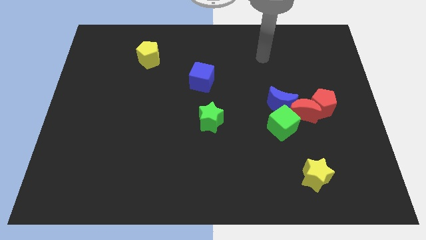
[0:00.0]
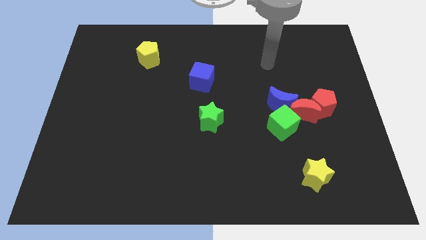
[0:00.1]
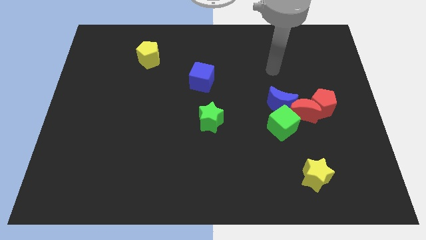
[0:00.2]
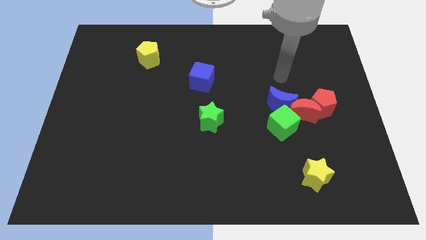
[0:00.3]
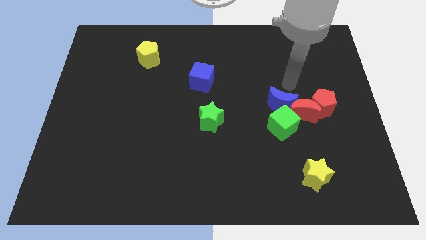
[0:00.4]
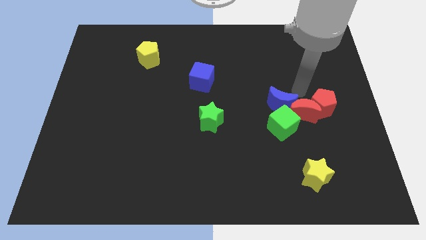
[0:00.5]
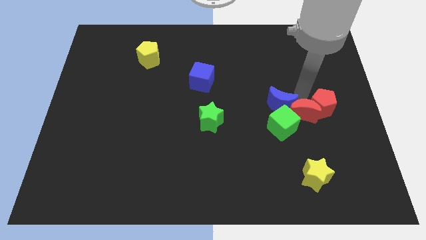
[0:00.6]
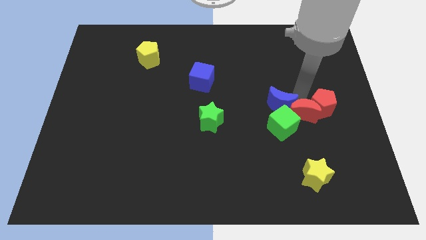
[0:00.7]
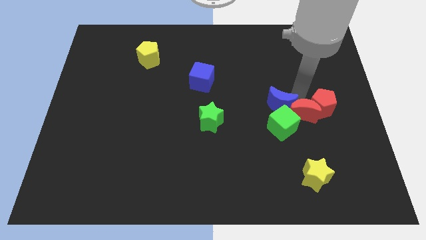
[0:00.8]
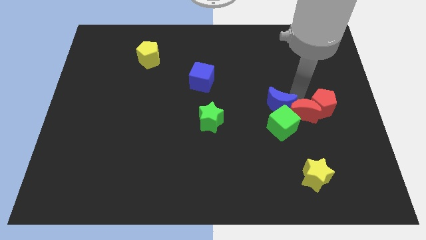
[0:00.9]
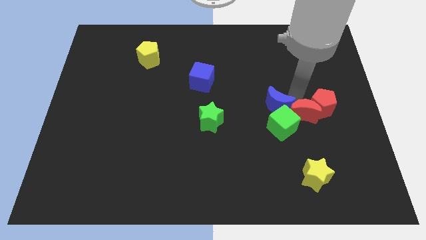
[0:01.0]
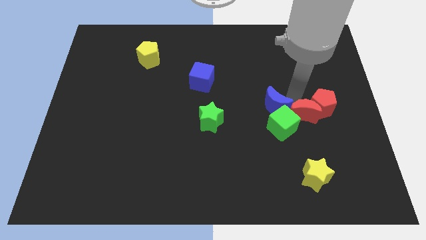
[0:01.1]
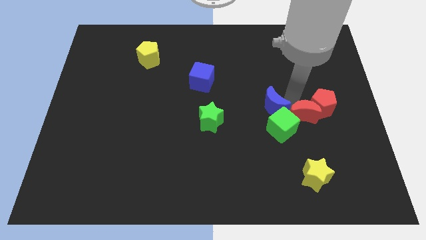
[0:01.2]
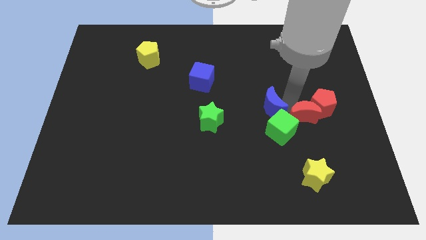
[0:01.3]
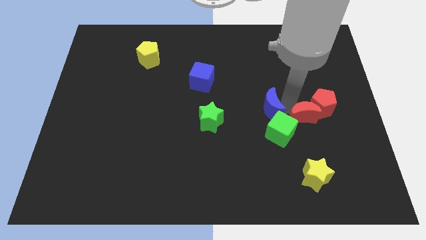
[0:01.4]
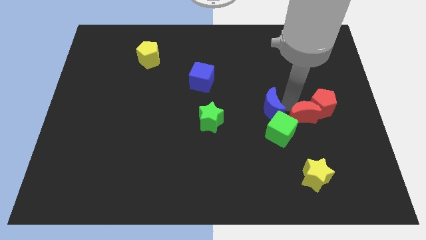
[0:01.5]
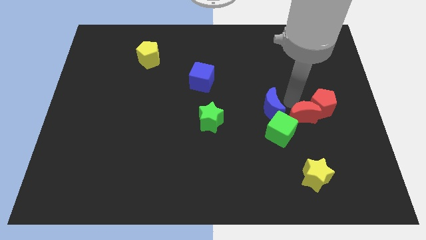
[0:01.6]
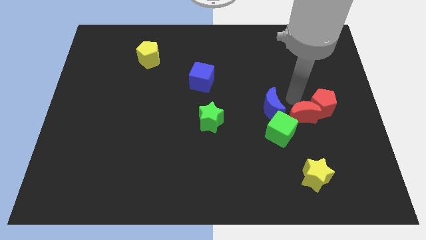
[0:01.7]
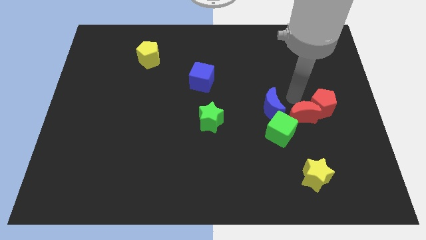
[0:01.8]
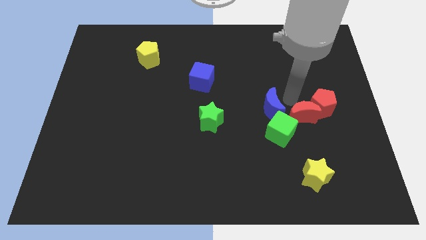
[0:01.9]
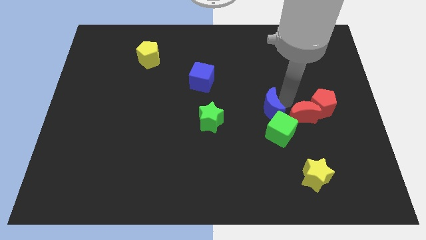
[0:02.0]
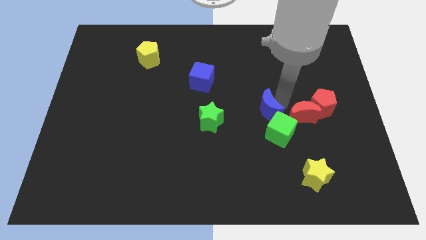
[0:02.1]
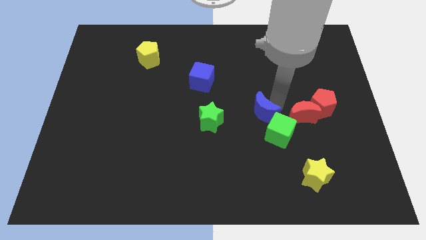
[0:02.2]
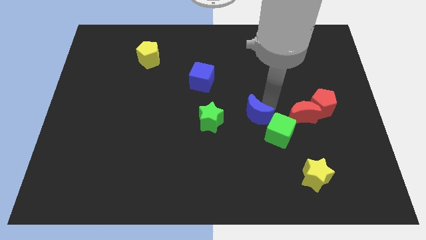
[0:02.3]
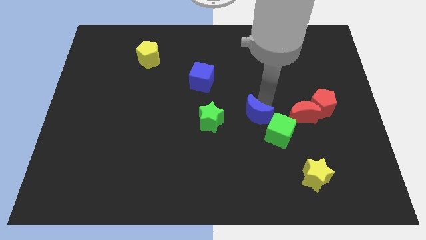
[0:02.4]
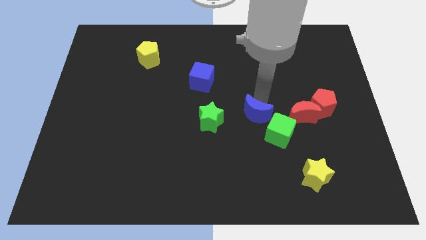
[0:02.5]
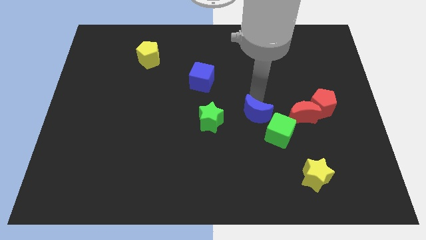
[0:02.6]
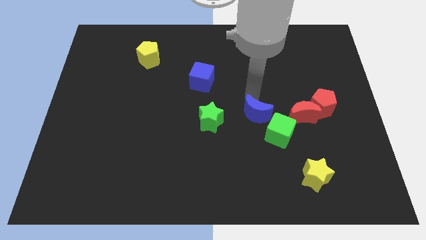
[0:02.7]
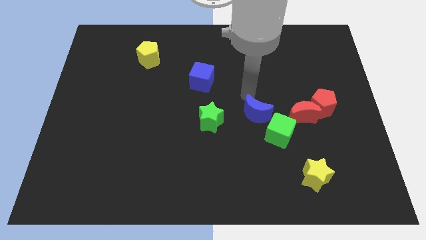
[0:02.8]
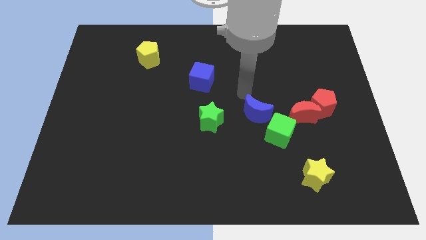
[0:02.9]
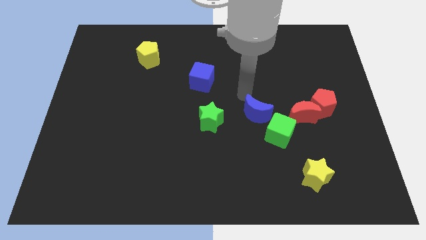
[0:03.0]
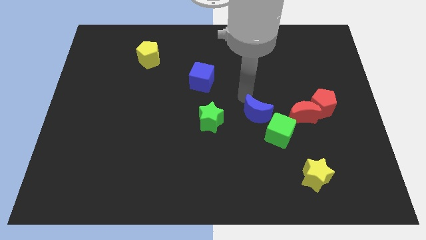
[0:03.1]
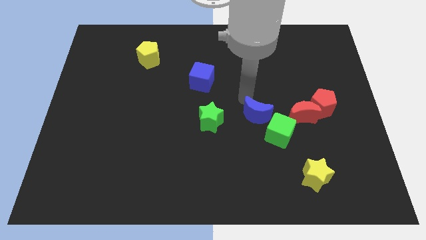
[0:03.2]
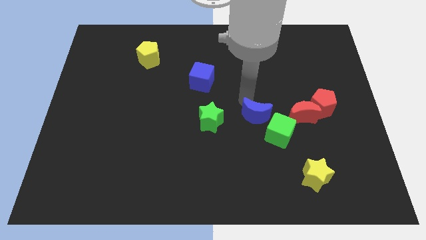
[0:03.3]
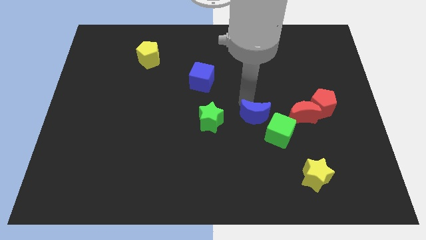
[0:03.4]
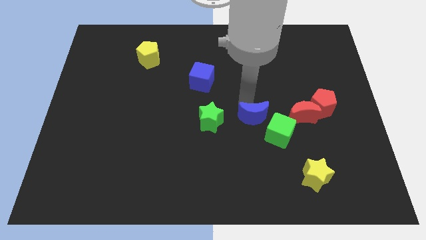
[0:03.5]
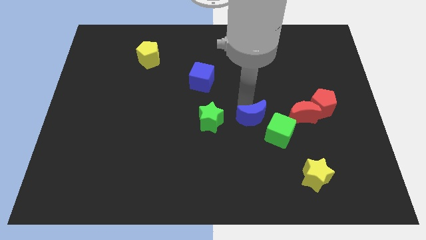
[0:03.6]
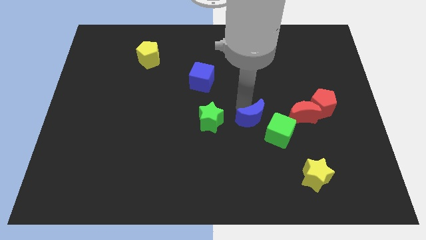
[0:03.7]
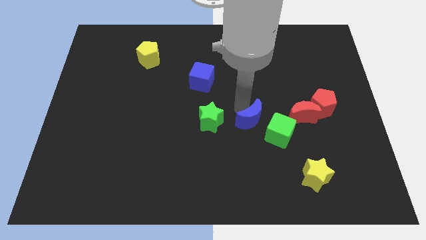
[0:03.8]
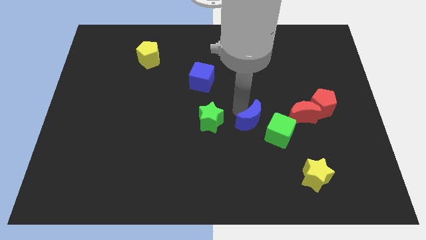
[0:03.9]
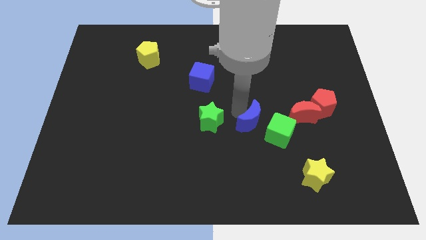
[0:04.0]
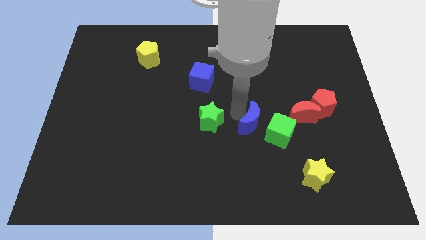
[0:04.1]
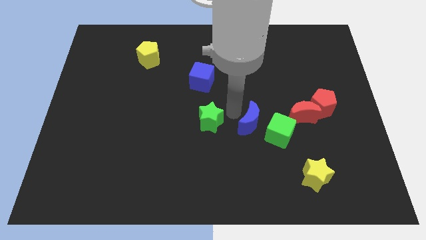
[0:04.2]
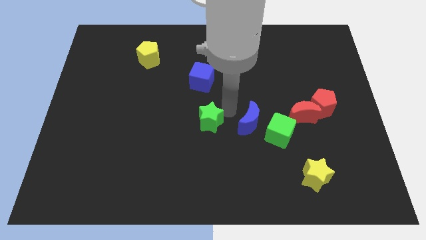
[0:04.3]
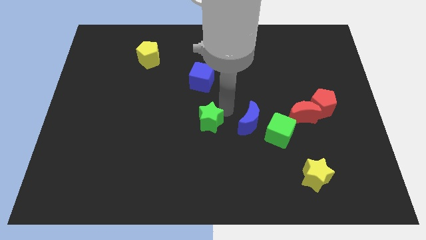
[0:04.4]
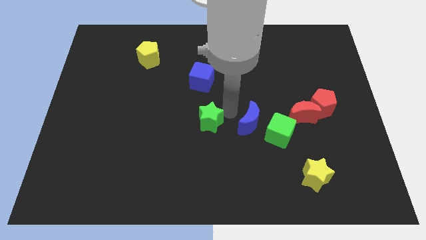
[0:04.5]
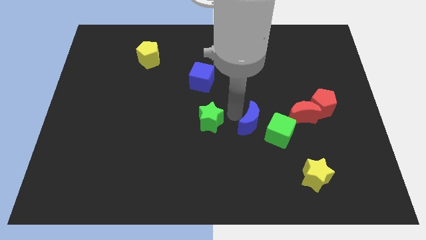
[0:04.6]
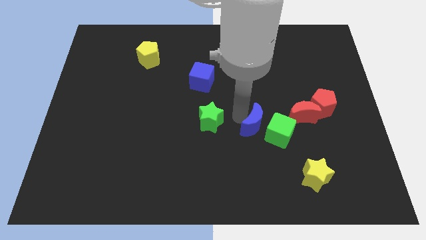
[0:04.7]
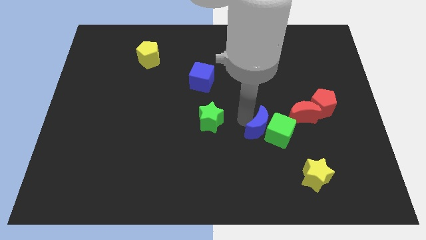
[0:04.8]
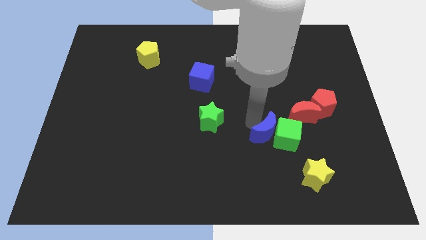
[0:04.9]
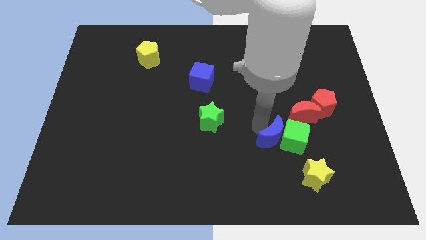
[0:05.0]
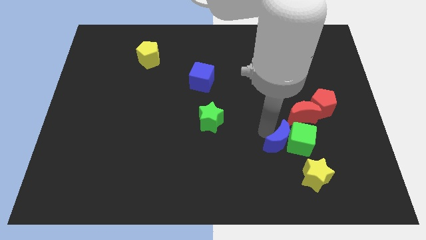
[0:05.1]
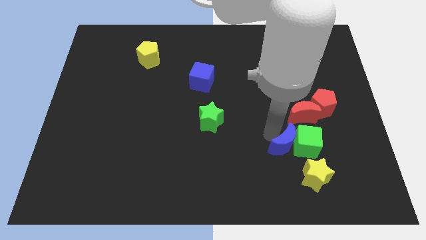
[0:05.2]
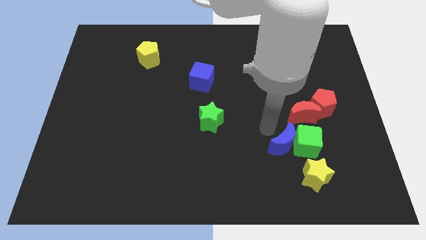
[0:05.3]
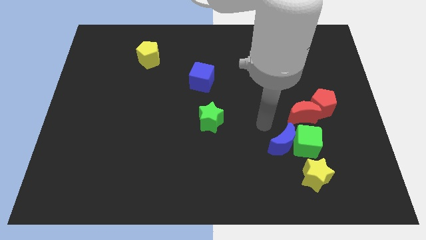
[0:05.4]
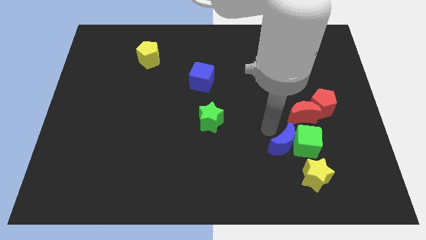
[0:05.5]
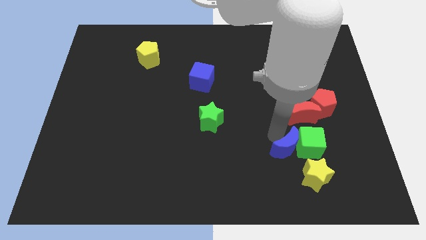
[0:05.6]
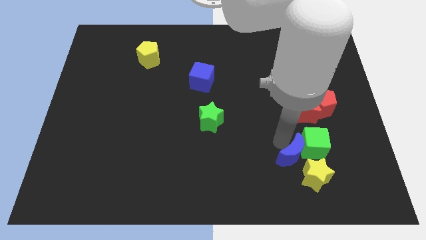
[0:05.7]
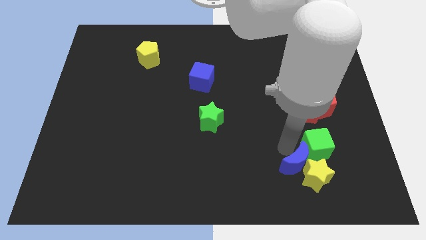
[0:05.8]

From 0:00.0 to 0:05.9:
put the blue moon next to the yellow star

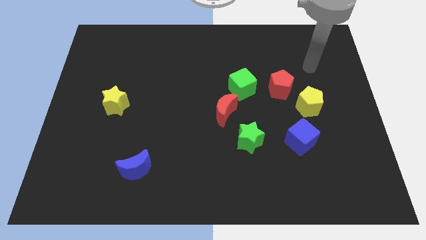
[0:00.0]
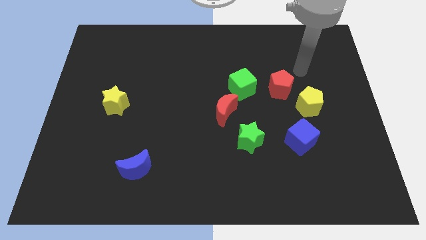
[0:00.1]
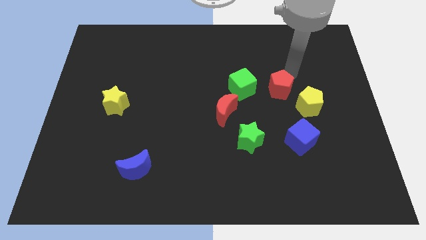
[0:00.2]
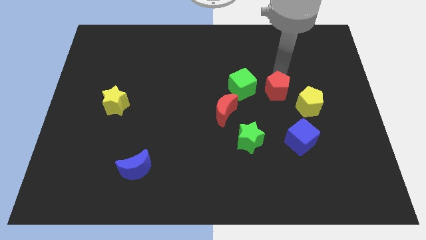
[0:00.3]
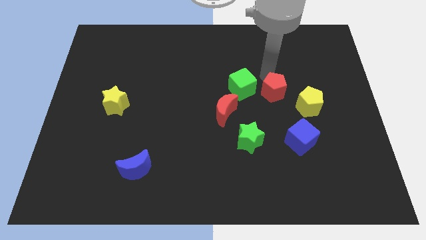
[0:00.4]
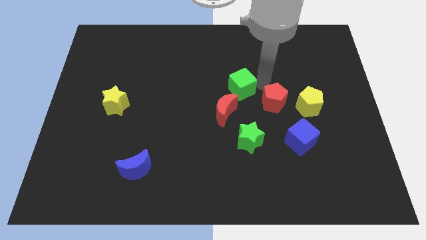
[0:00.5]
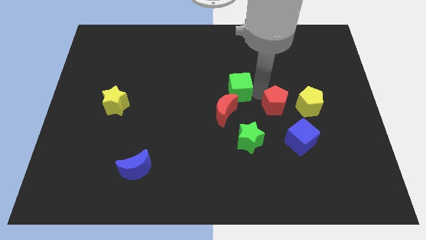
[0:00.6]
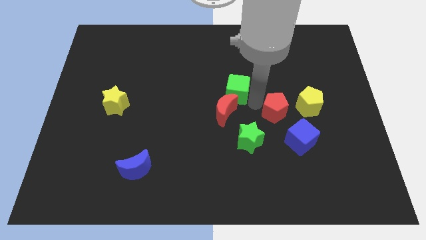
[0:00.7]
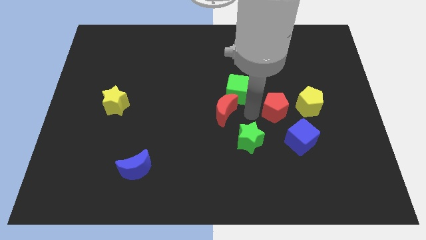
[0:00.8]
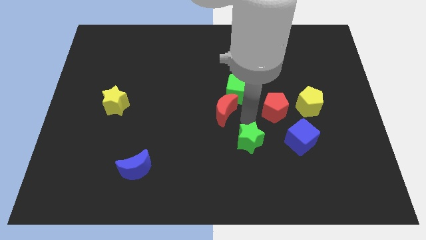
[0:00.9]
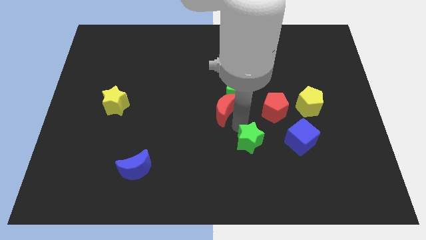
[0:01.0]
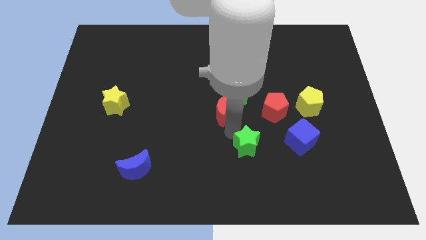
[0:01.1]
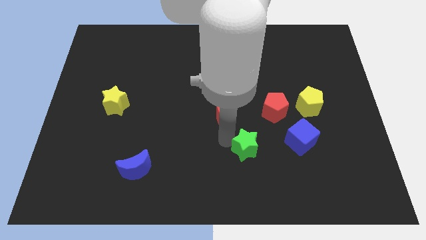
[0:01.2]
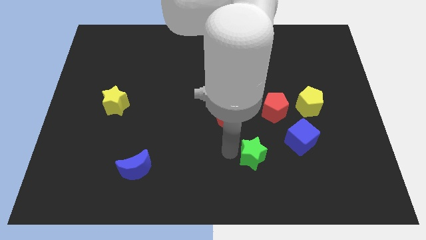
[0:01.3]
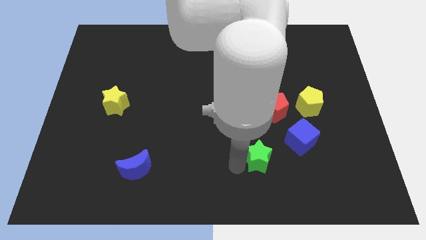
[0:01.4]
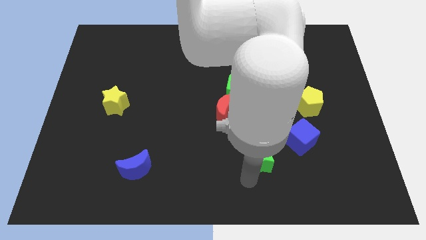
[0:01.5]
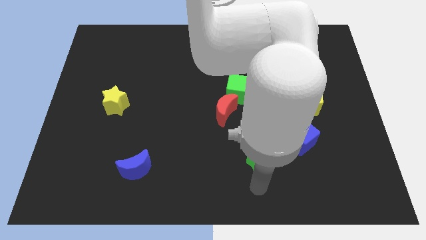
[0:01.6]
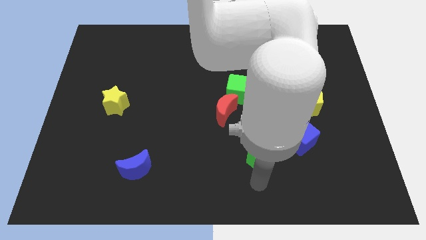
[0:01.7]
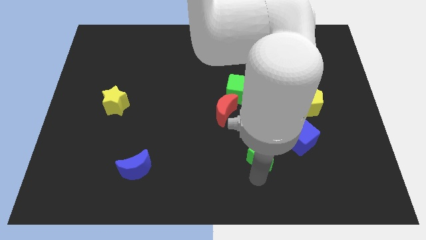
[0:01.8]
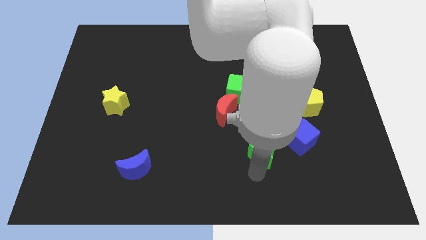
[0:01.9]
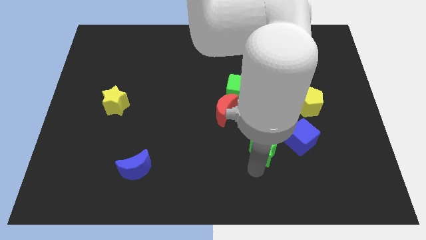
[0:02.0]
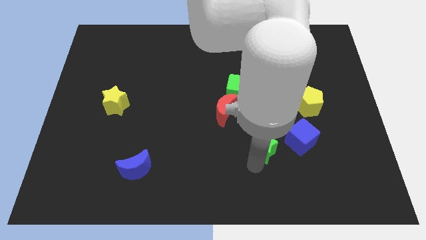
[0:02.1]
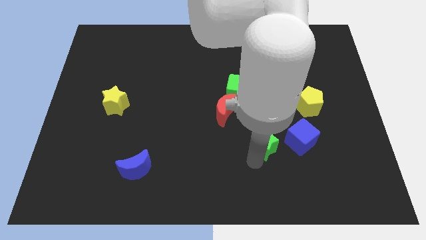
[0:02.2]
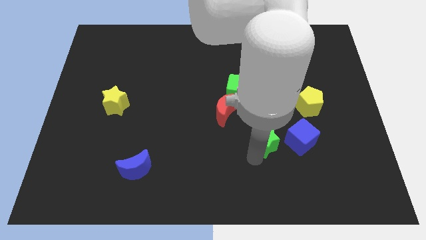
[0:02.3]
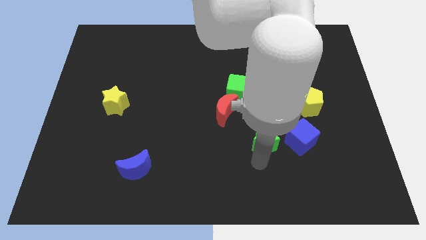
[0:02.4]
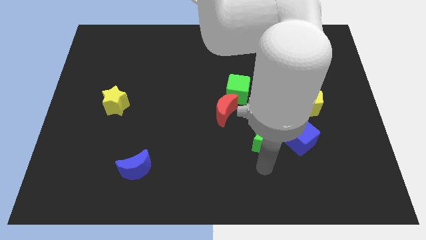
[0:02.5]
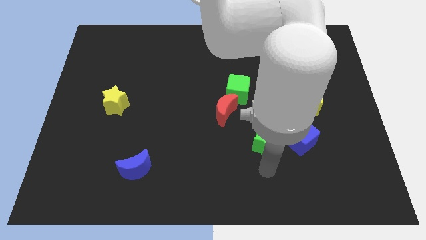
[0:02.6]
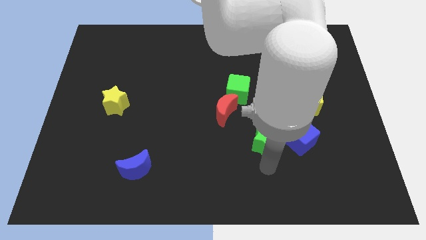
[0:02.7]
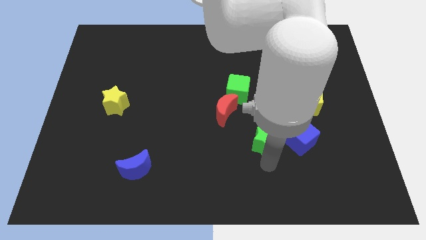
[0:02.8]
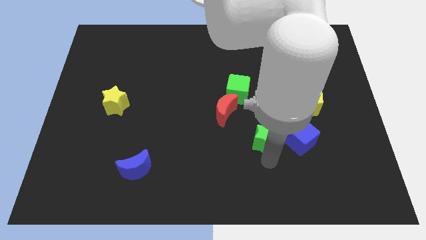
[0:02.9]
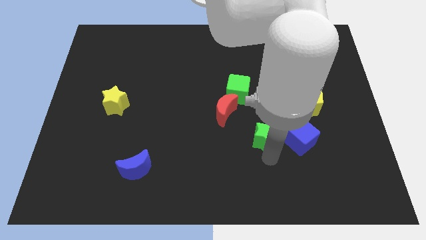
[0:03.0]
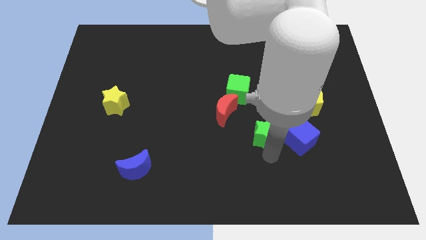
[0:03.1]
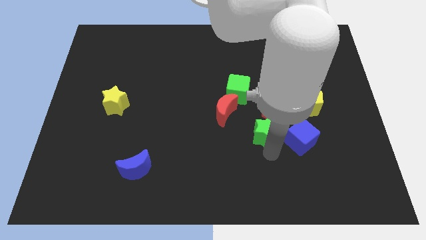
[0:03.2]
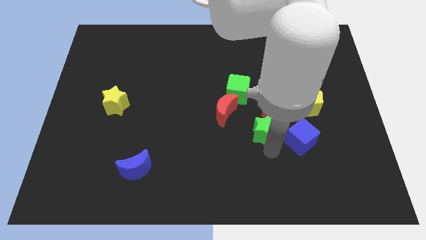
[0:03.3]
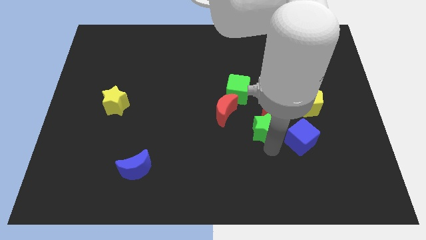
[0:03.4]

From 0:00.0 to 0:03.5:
move the green star towards the red pentagon
